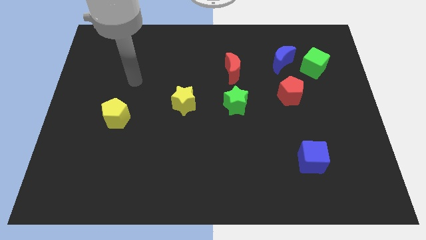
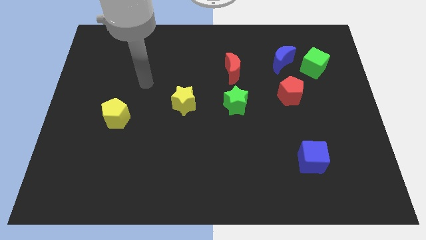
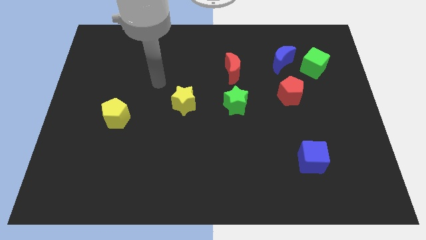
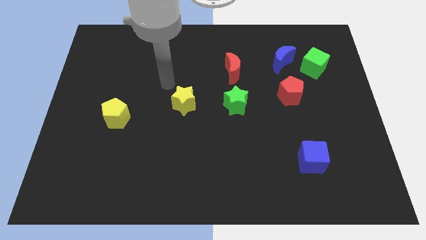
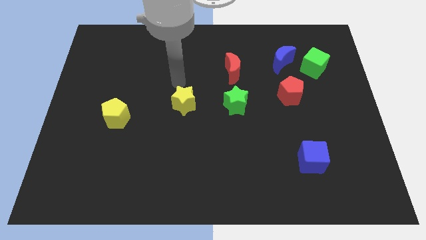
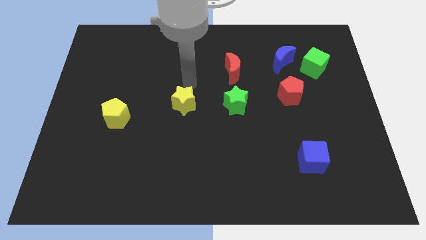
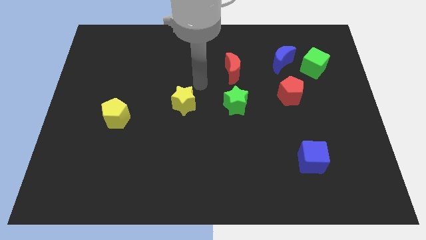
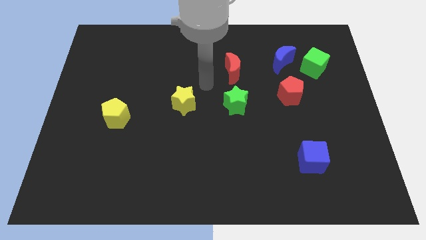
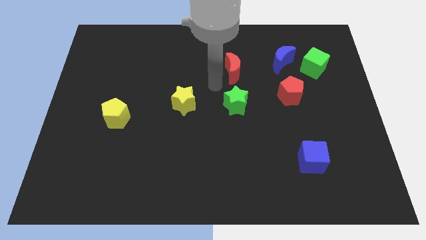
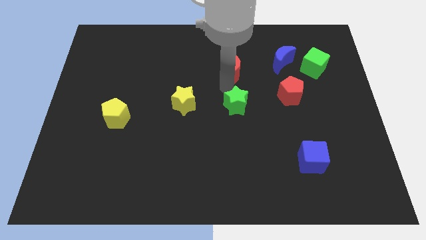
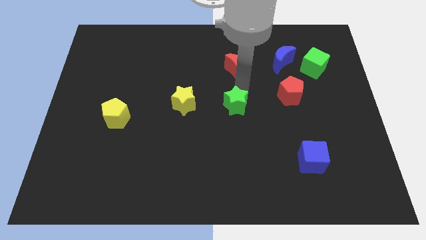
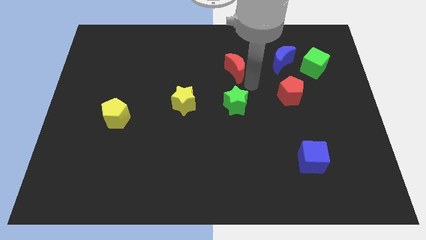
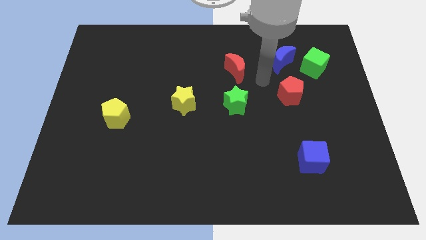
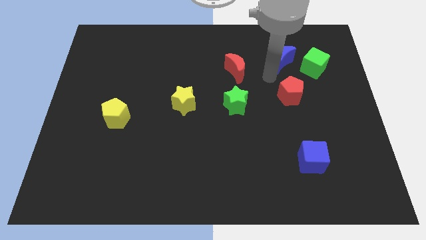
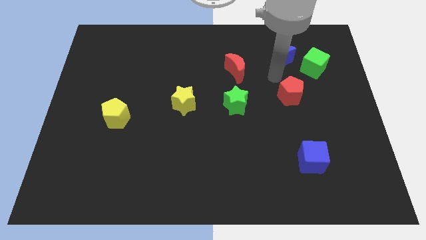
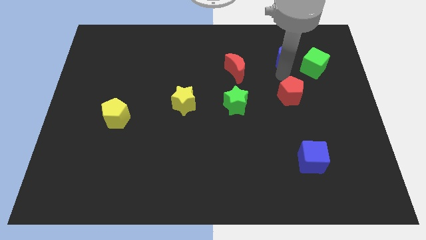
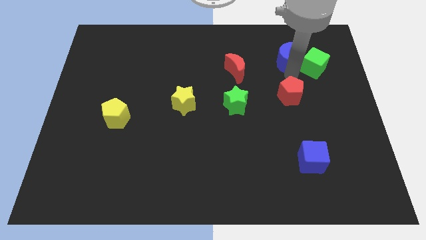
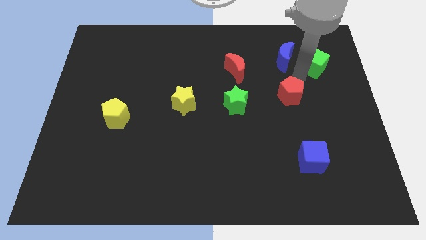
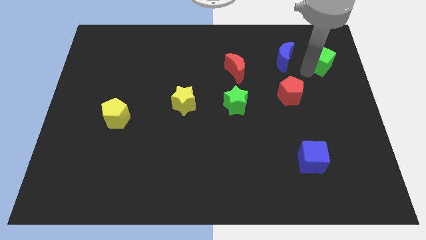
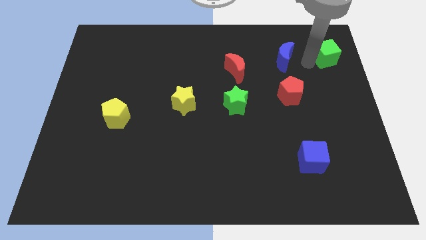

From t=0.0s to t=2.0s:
pull the blue moon apart from the green cube

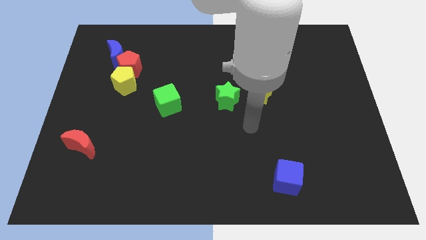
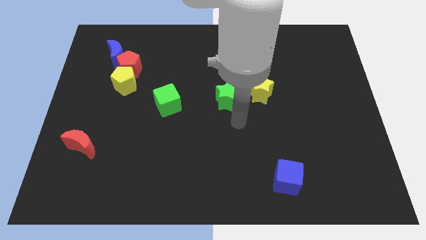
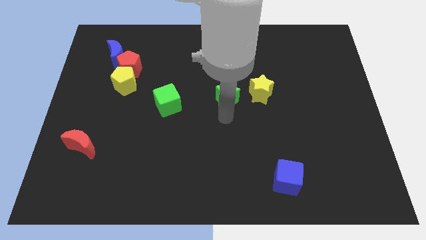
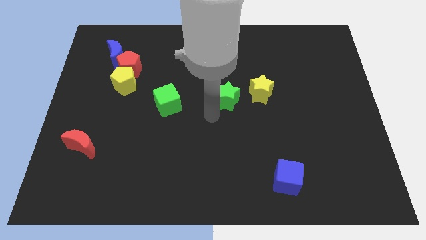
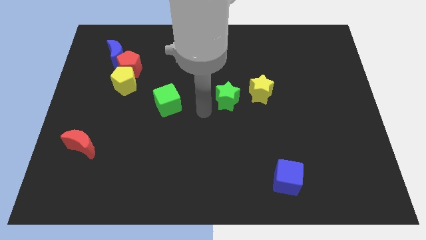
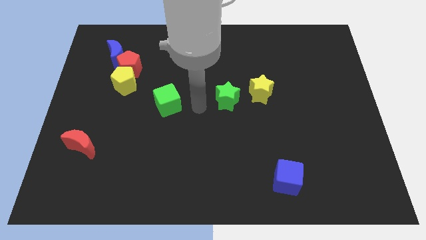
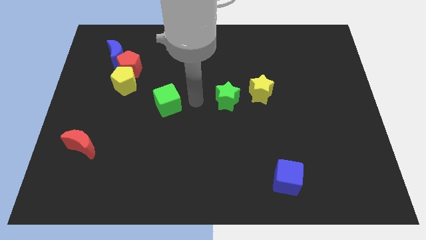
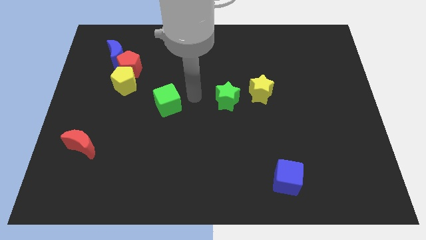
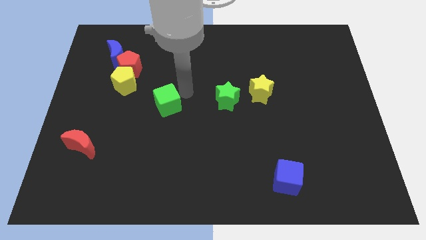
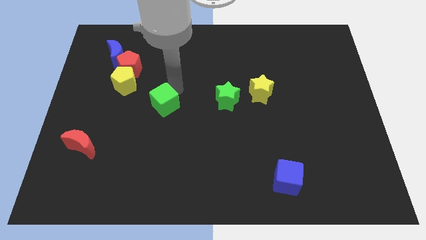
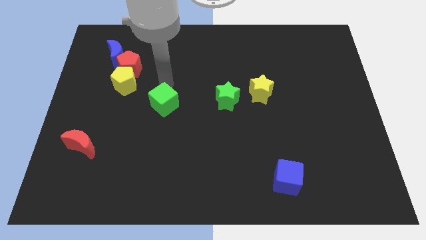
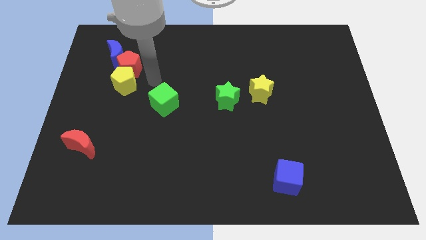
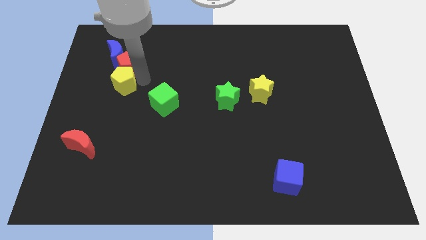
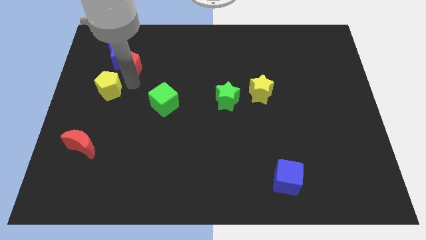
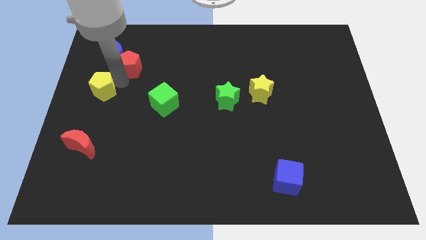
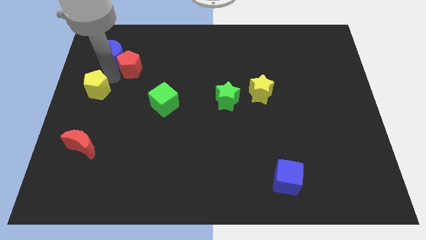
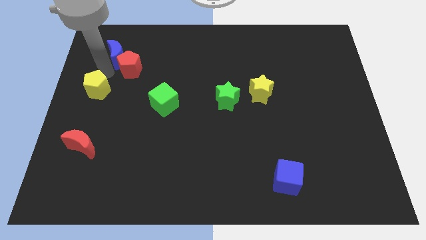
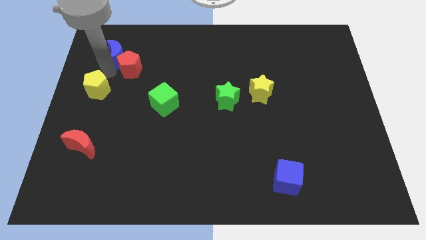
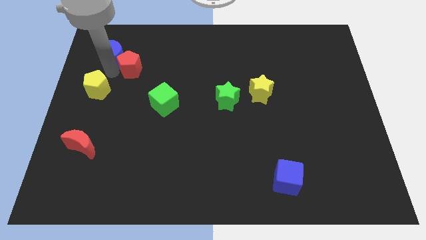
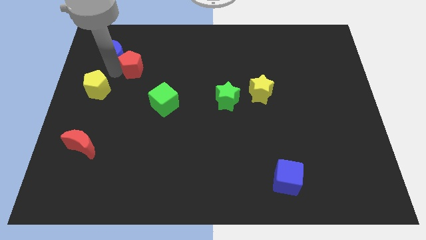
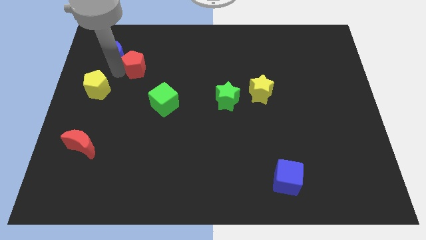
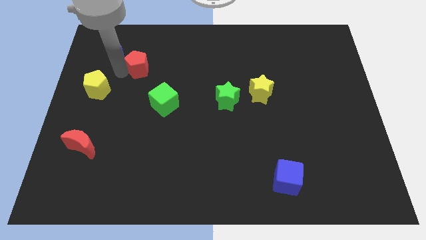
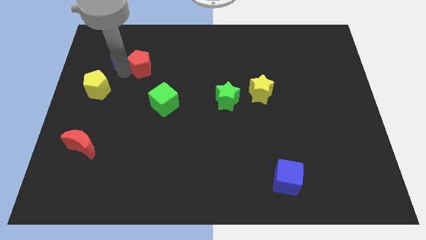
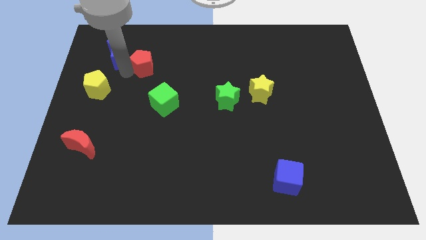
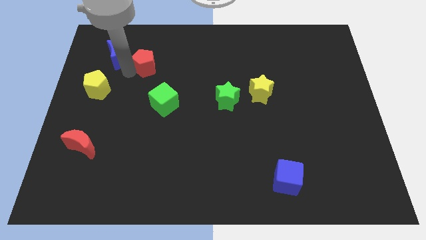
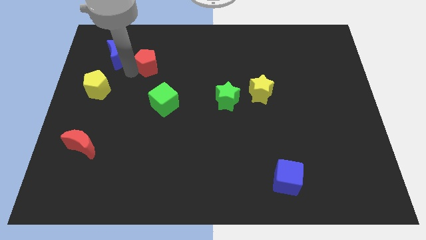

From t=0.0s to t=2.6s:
move the red pentagon away from the yellow pentagon and blue moon

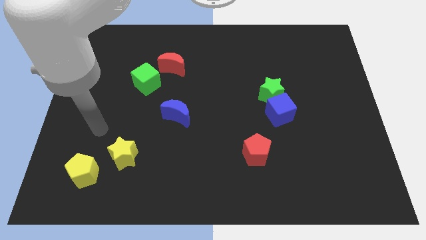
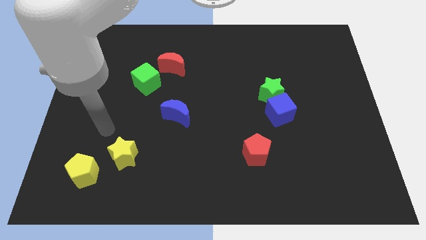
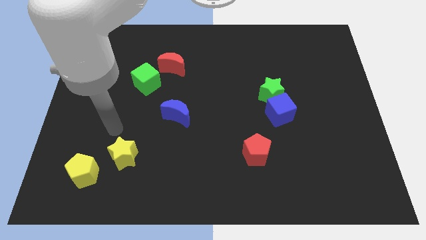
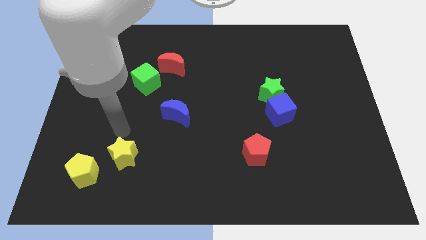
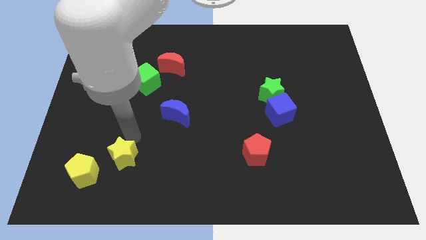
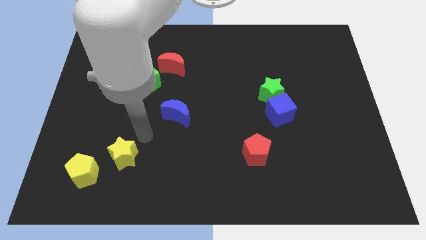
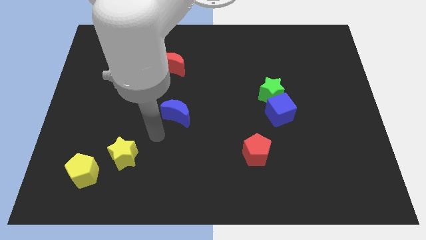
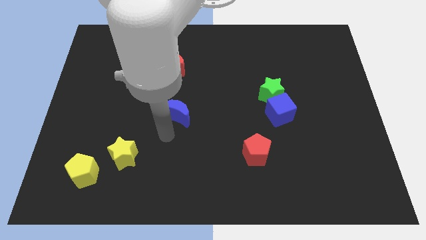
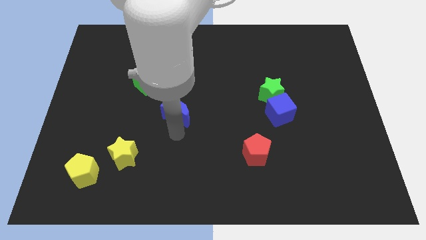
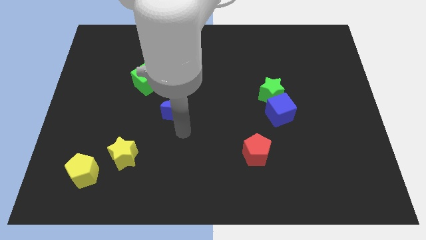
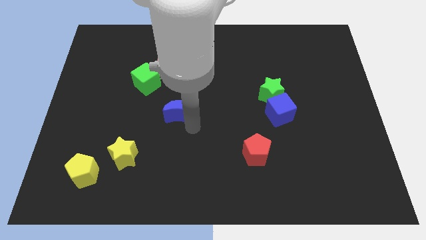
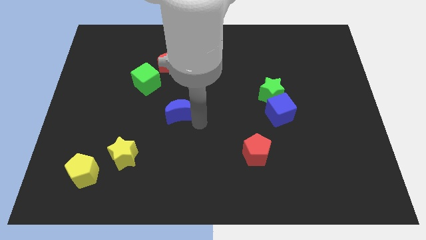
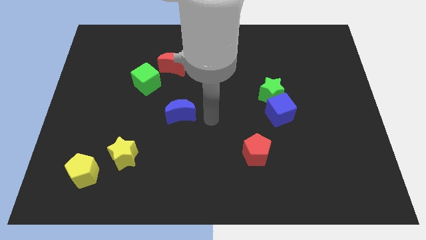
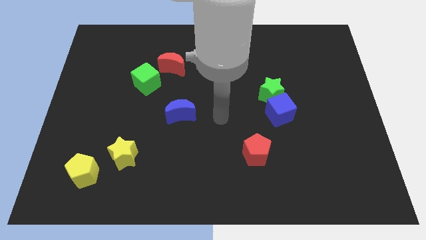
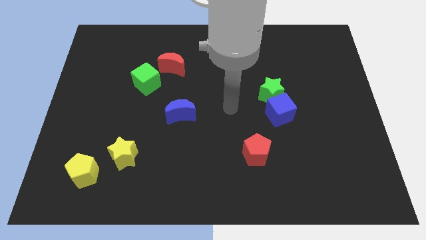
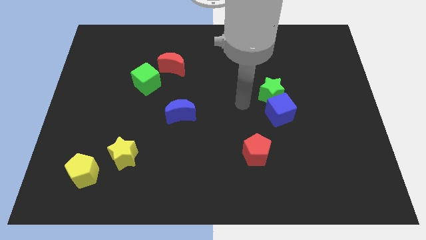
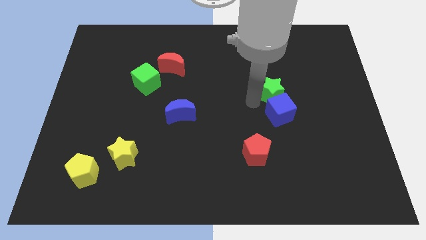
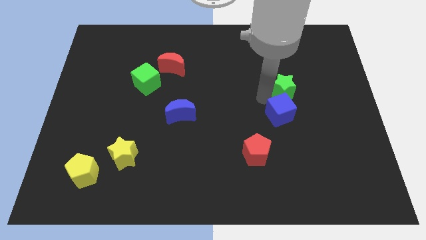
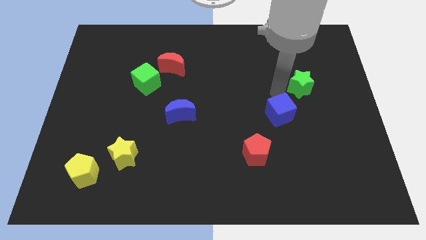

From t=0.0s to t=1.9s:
pull the blue cube apart from the green star

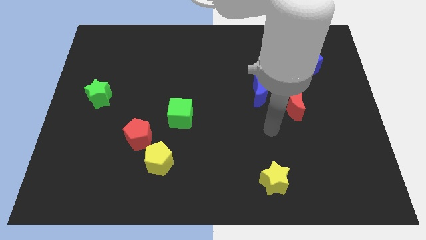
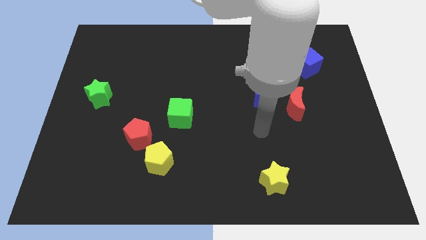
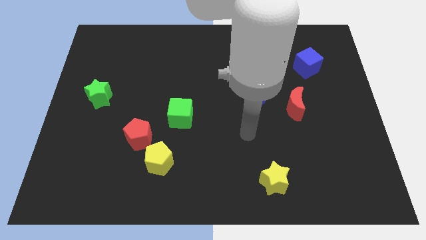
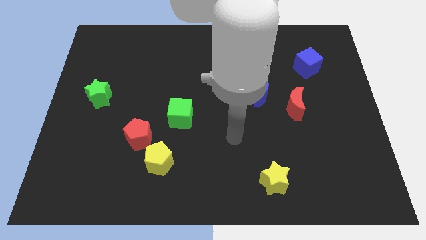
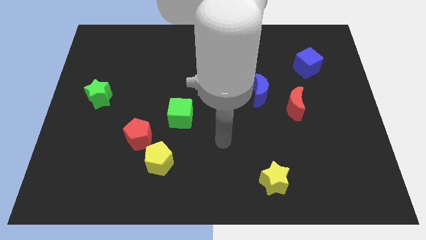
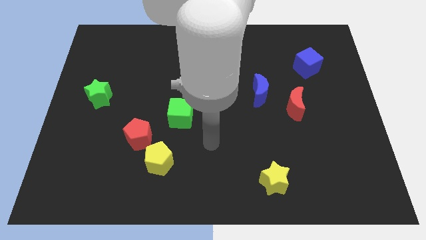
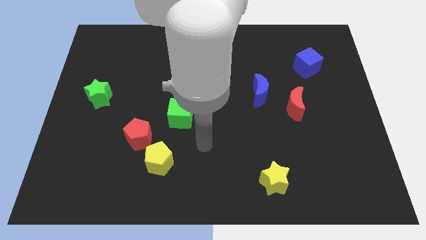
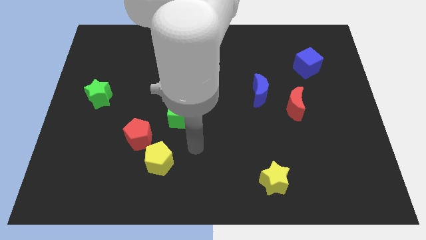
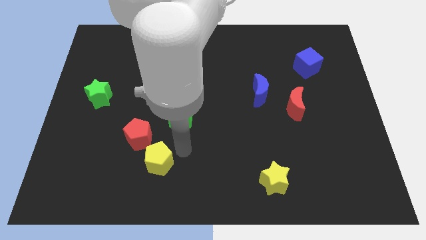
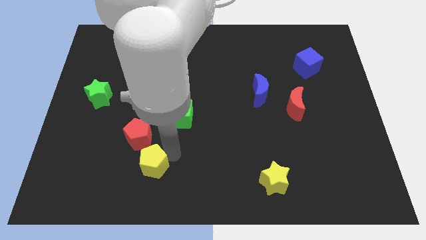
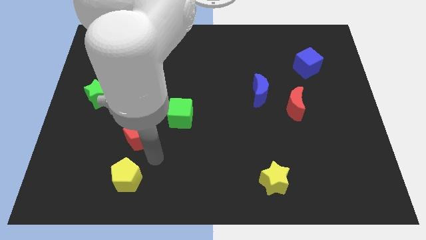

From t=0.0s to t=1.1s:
separate the red pentagon from the yellow pentagon

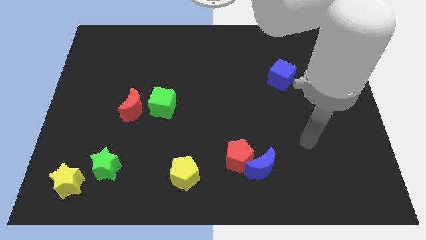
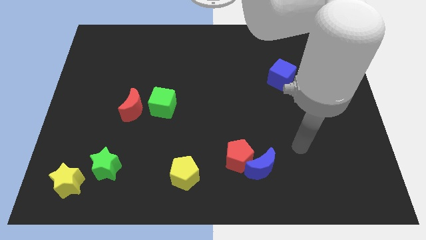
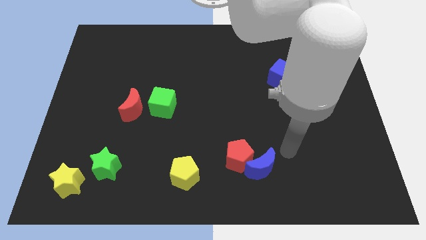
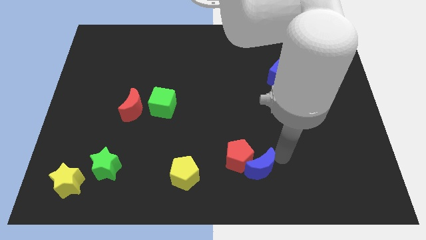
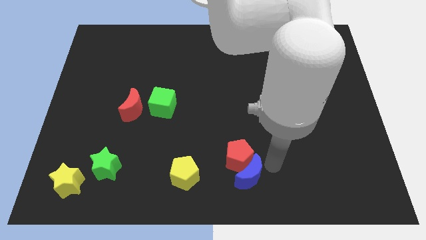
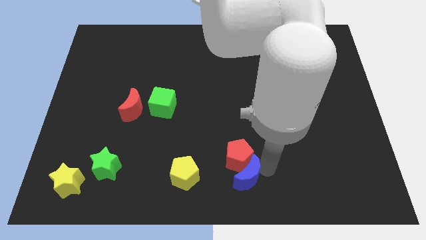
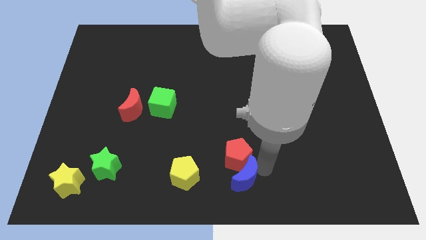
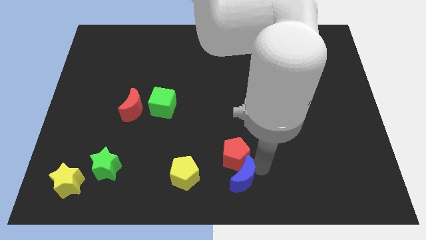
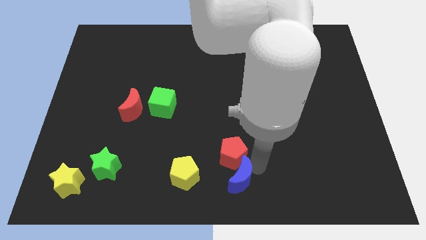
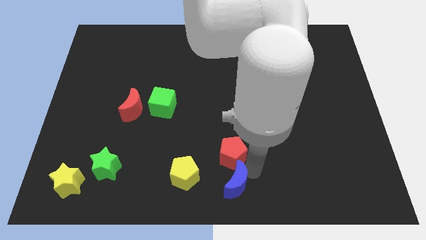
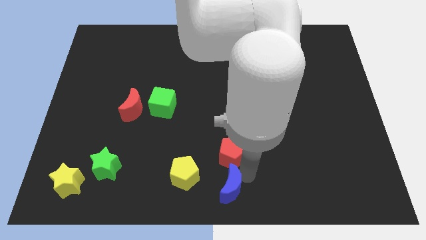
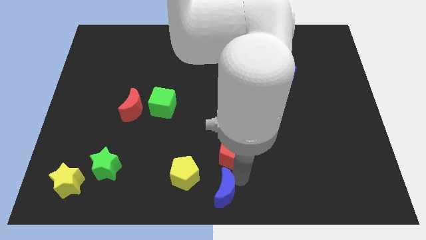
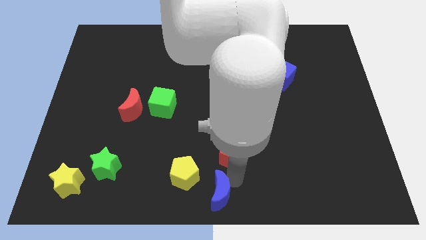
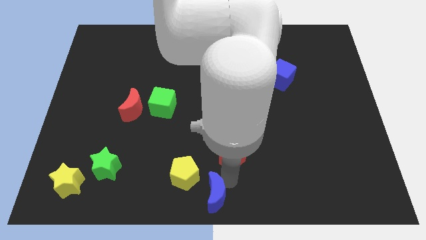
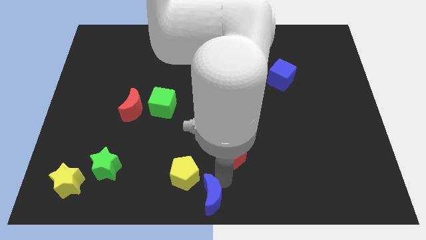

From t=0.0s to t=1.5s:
move the red pentagon away from the blue moon

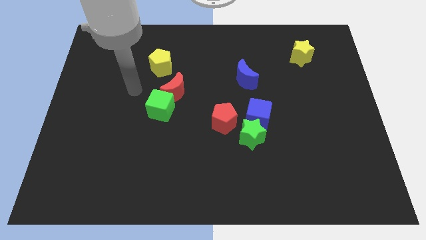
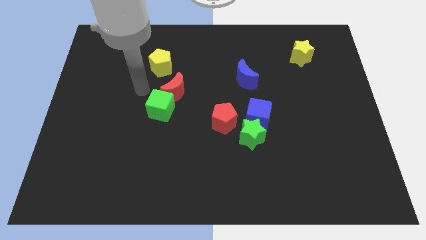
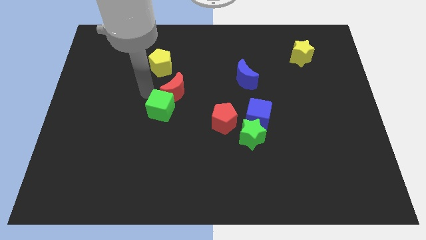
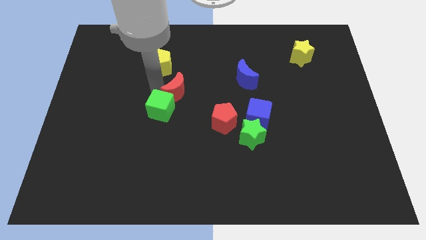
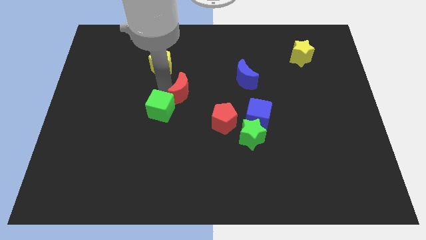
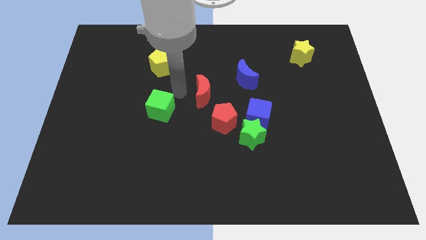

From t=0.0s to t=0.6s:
move the green cube away from the red moon
